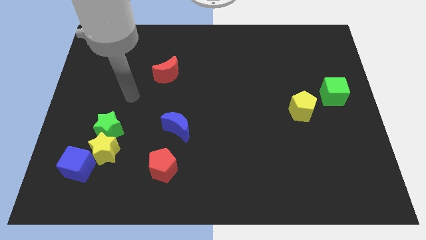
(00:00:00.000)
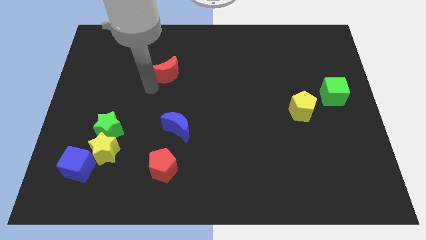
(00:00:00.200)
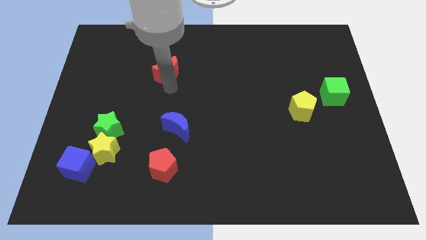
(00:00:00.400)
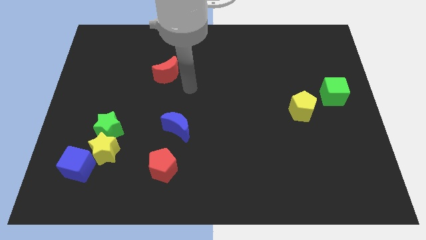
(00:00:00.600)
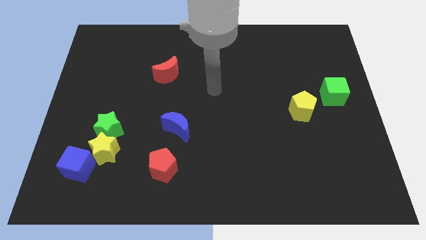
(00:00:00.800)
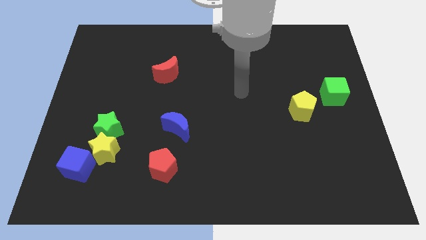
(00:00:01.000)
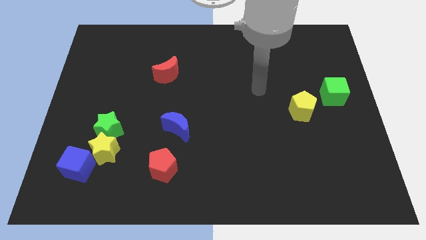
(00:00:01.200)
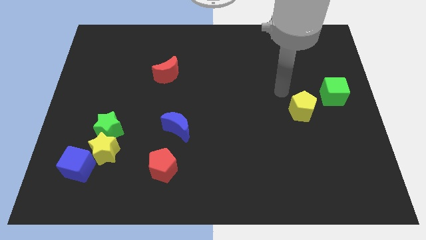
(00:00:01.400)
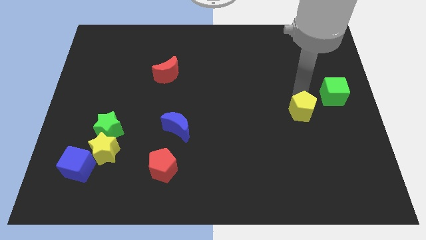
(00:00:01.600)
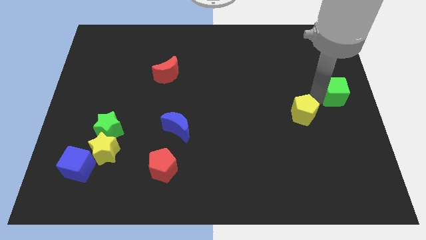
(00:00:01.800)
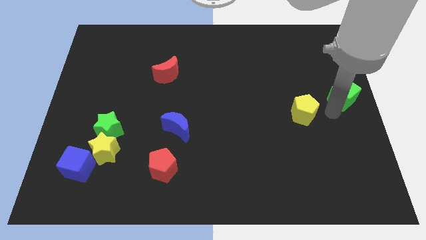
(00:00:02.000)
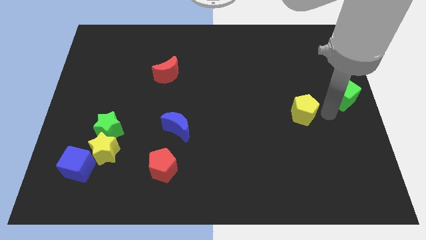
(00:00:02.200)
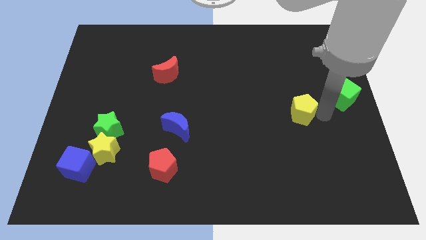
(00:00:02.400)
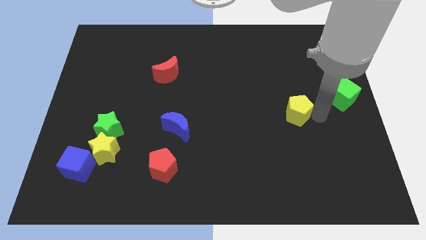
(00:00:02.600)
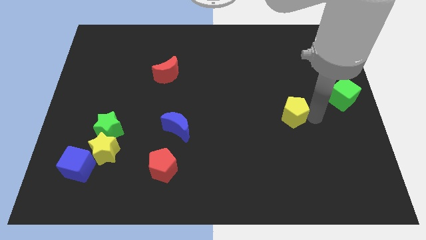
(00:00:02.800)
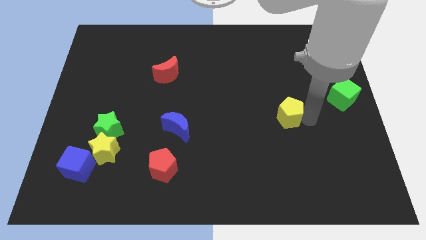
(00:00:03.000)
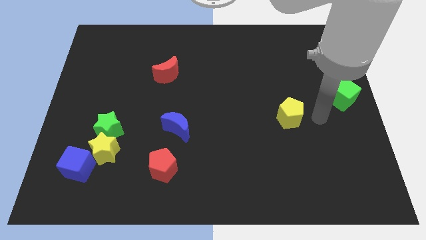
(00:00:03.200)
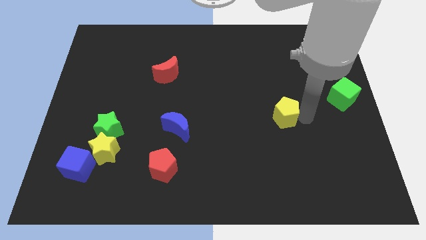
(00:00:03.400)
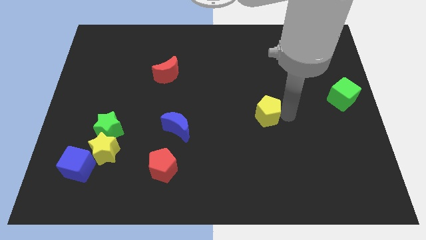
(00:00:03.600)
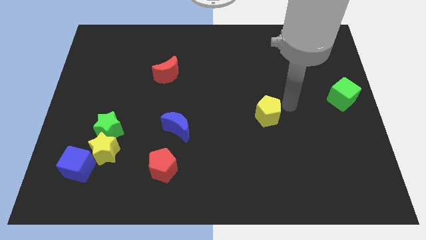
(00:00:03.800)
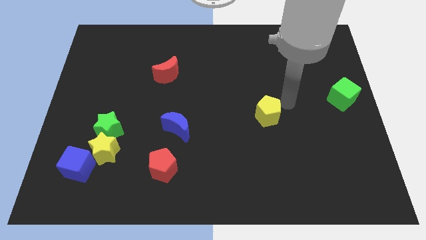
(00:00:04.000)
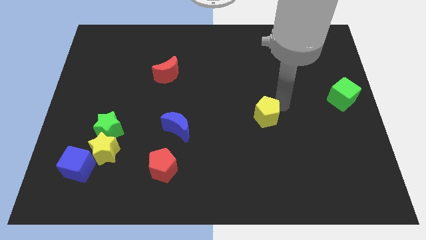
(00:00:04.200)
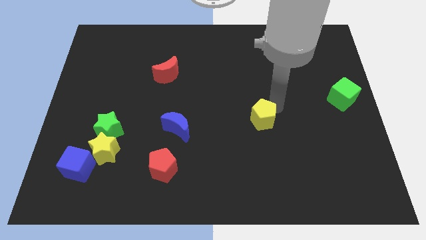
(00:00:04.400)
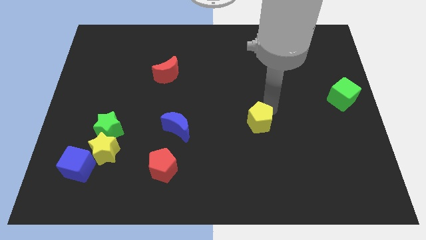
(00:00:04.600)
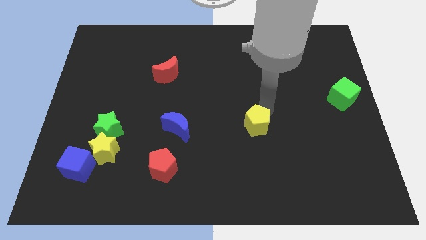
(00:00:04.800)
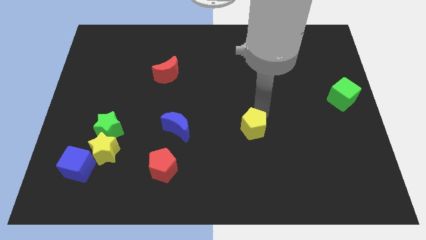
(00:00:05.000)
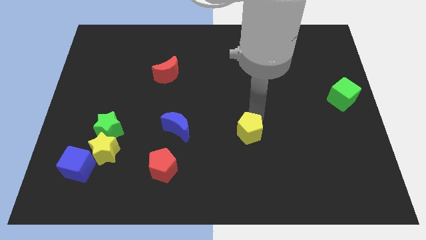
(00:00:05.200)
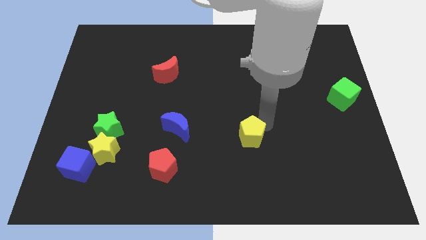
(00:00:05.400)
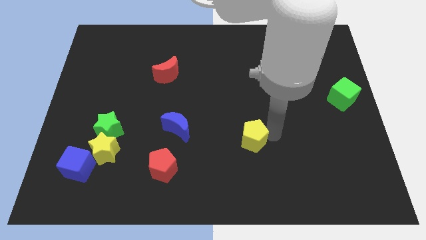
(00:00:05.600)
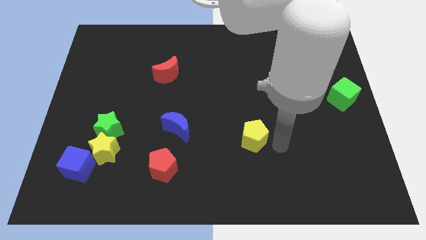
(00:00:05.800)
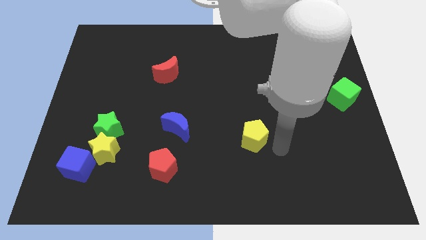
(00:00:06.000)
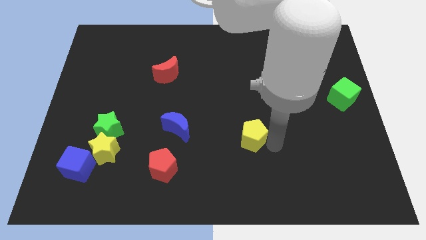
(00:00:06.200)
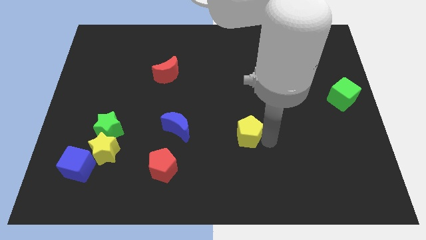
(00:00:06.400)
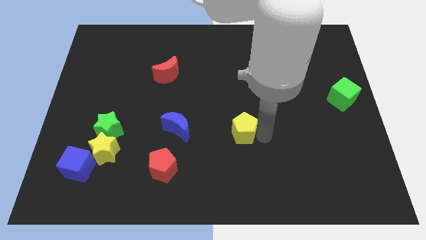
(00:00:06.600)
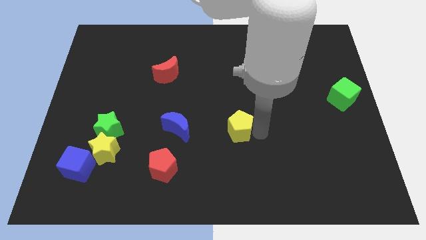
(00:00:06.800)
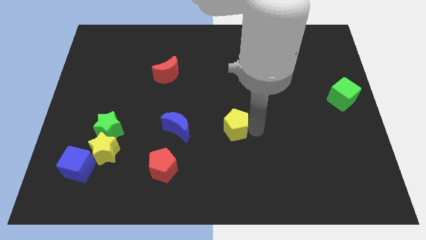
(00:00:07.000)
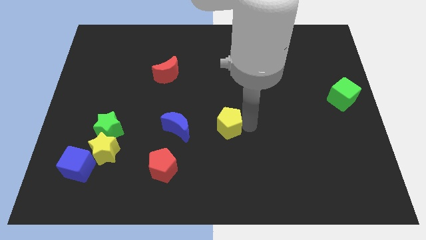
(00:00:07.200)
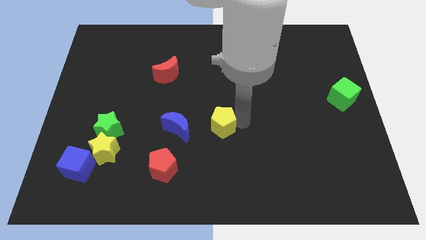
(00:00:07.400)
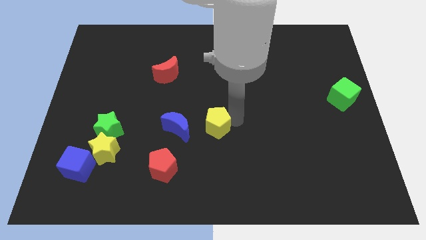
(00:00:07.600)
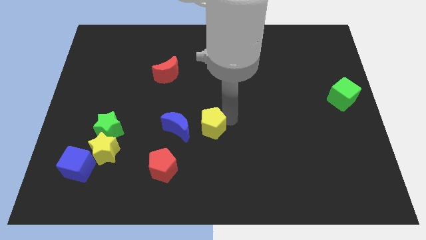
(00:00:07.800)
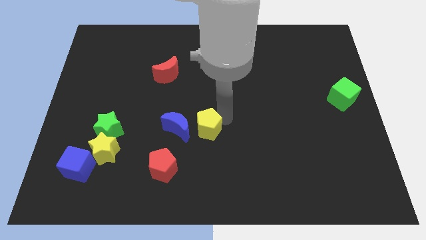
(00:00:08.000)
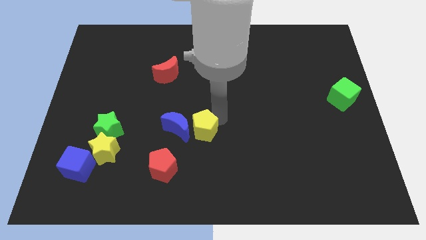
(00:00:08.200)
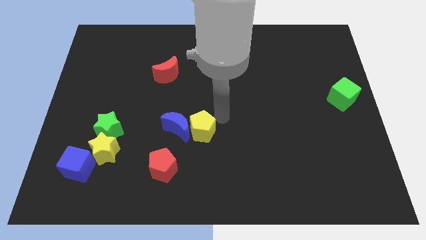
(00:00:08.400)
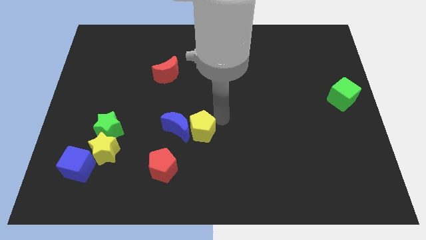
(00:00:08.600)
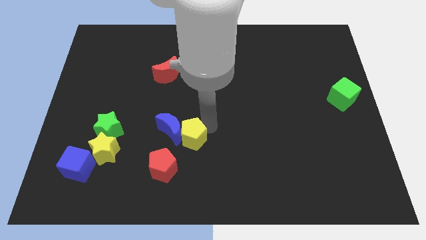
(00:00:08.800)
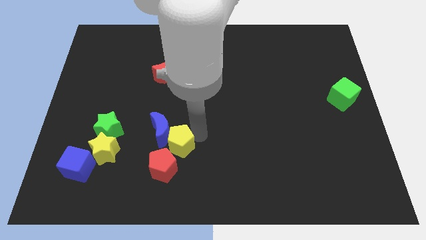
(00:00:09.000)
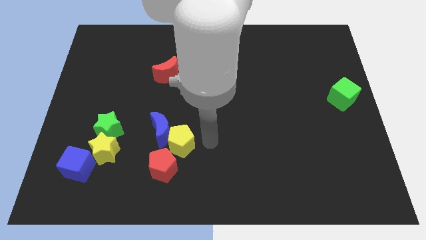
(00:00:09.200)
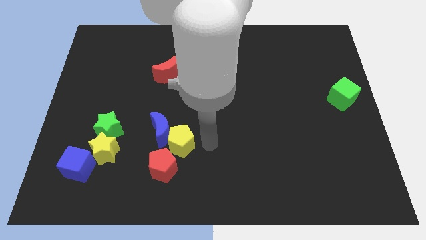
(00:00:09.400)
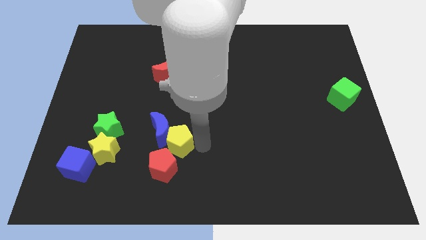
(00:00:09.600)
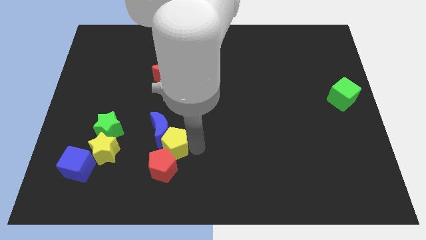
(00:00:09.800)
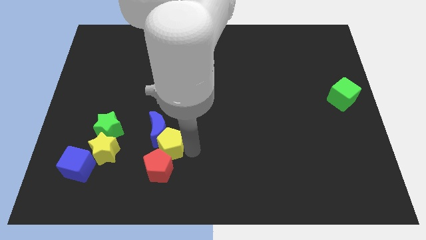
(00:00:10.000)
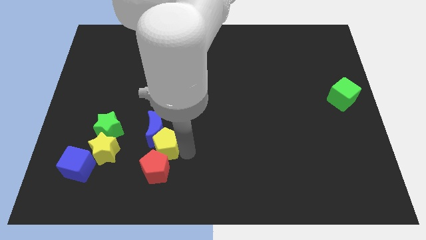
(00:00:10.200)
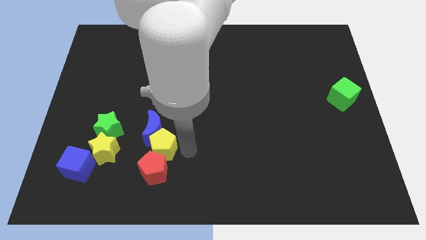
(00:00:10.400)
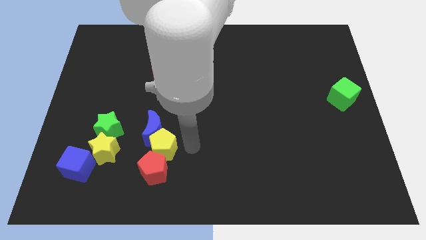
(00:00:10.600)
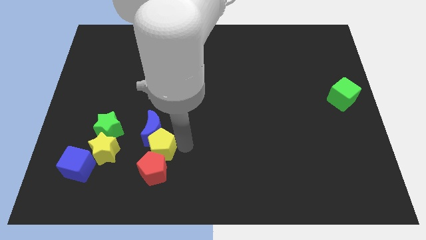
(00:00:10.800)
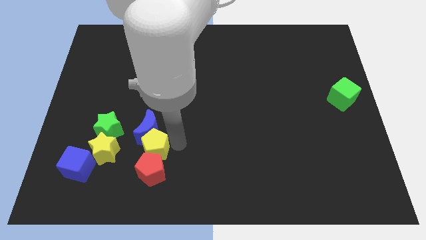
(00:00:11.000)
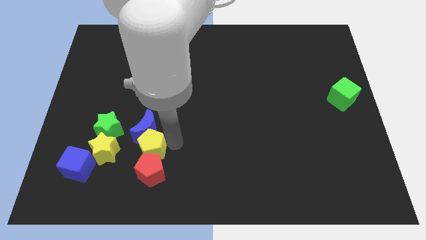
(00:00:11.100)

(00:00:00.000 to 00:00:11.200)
slide the yellow pentagon to the bottom right side of the green star
